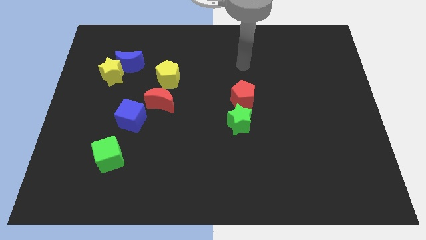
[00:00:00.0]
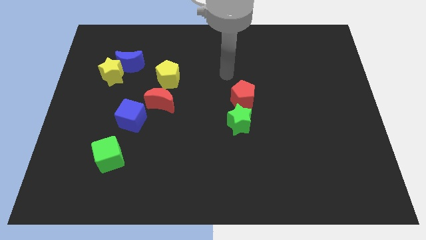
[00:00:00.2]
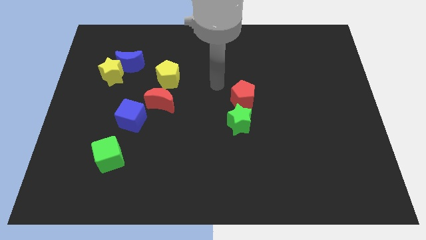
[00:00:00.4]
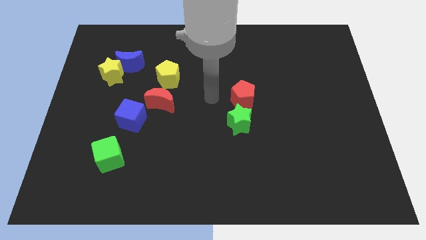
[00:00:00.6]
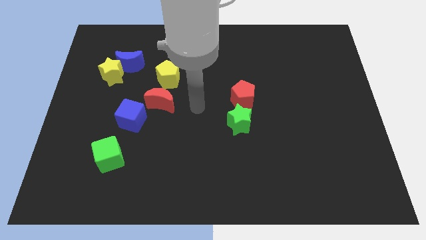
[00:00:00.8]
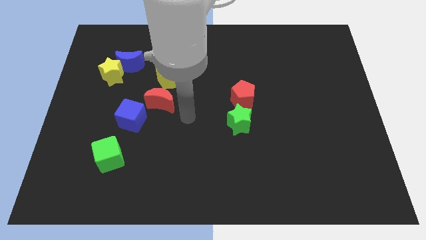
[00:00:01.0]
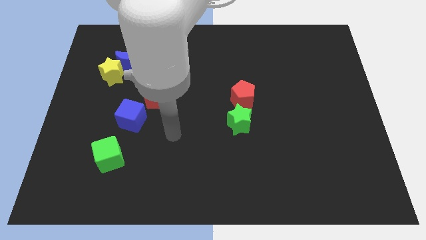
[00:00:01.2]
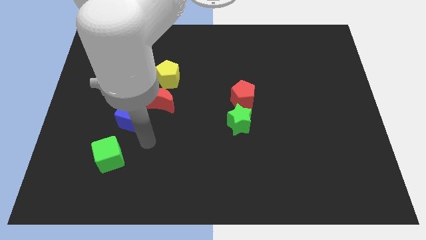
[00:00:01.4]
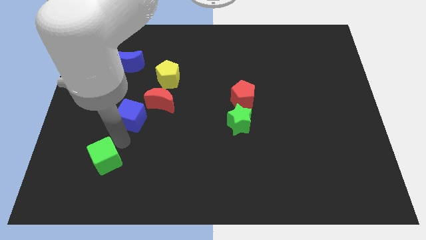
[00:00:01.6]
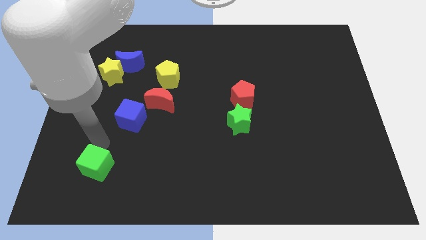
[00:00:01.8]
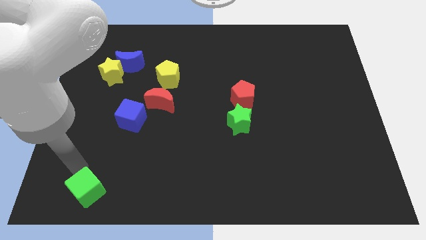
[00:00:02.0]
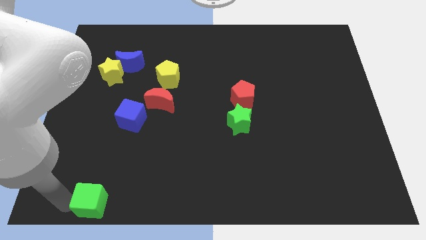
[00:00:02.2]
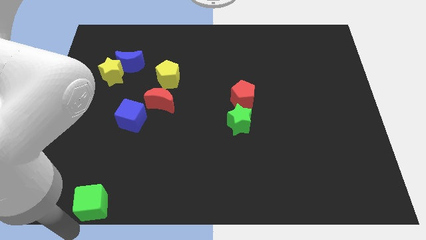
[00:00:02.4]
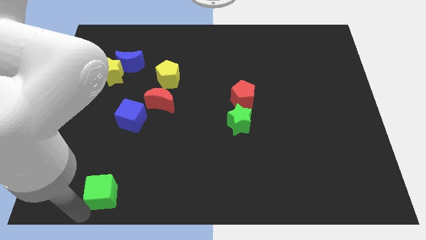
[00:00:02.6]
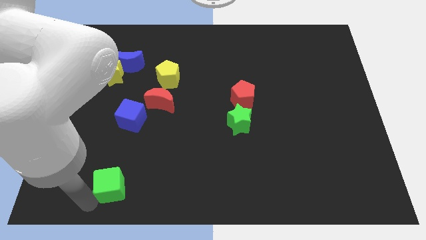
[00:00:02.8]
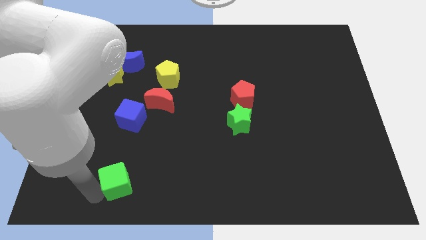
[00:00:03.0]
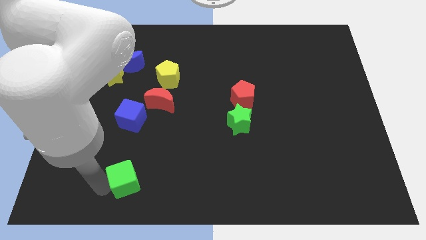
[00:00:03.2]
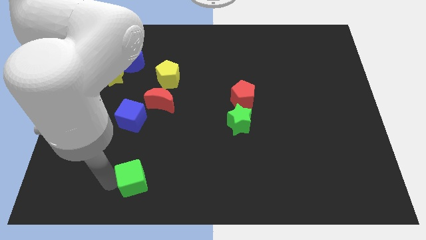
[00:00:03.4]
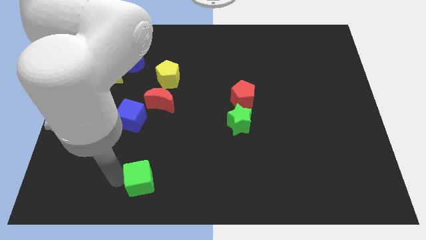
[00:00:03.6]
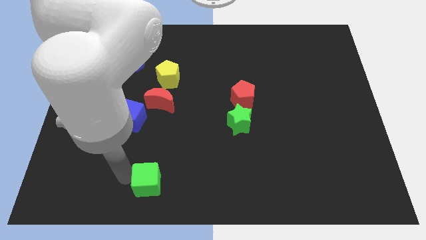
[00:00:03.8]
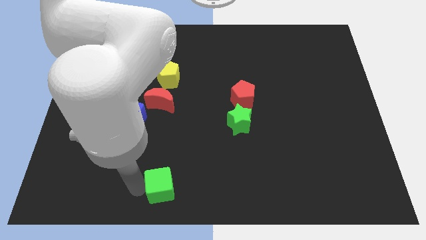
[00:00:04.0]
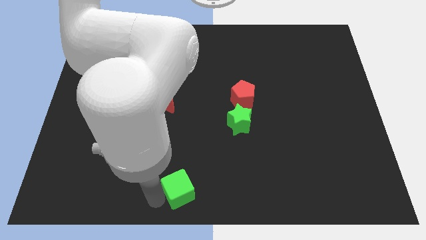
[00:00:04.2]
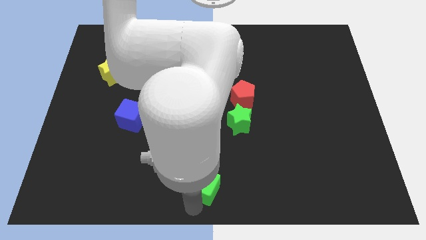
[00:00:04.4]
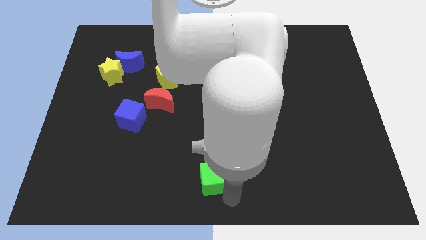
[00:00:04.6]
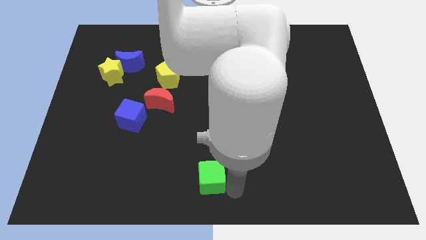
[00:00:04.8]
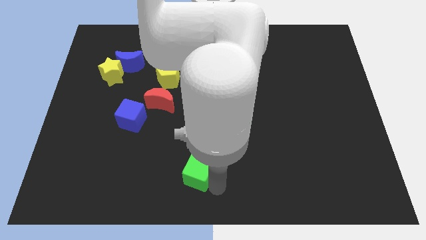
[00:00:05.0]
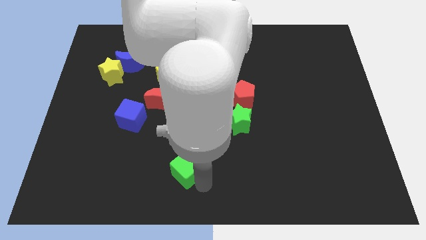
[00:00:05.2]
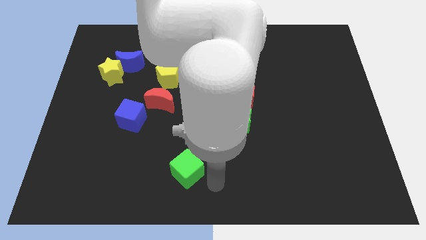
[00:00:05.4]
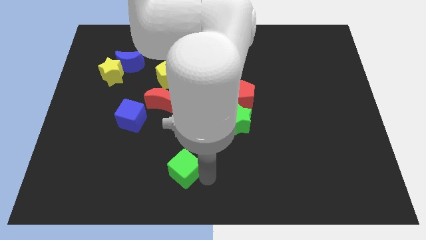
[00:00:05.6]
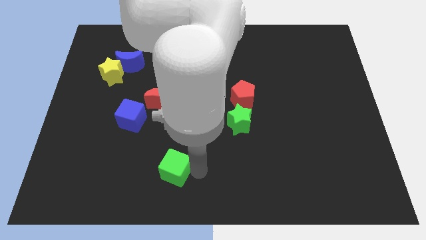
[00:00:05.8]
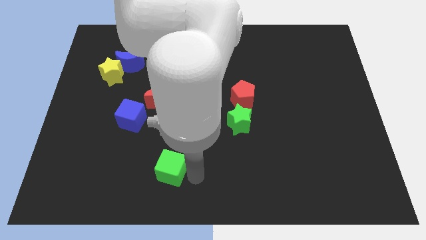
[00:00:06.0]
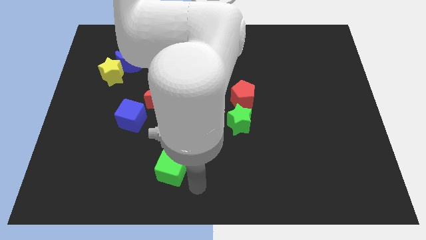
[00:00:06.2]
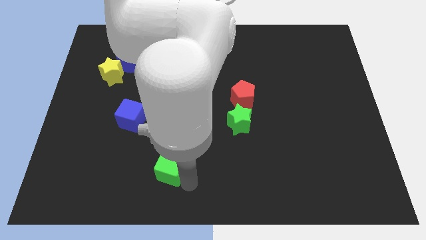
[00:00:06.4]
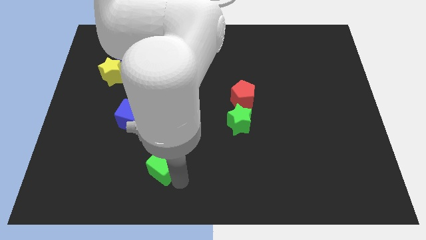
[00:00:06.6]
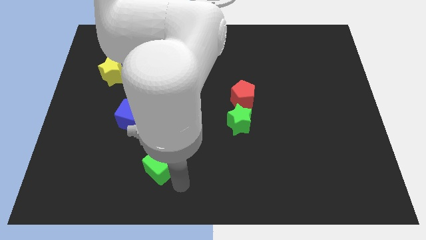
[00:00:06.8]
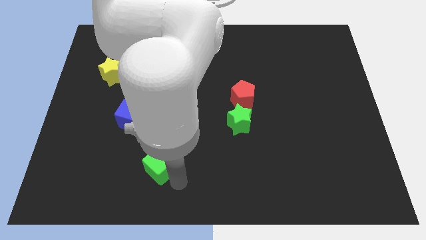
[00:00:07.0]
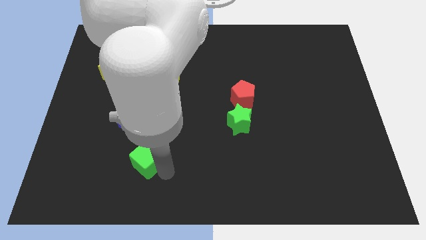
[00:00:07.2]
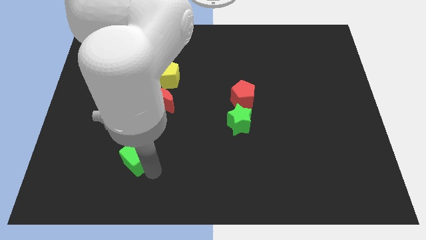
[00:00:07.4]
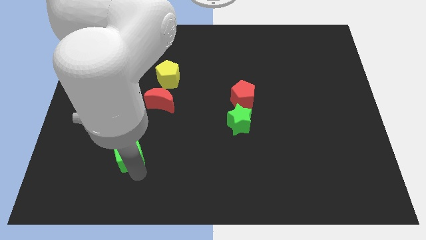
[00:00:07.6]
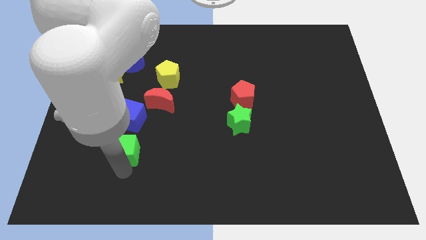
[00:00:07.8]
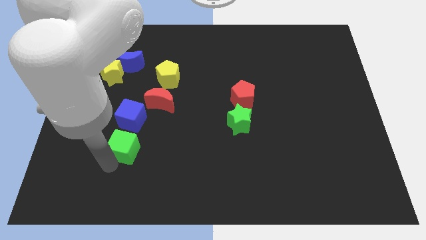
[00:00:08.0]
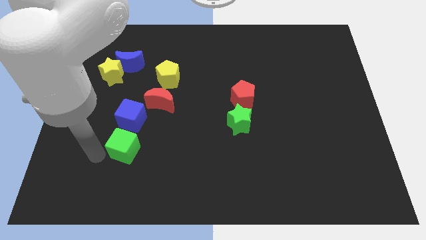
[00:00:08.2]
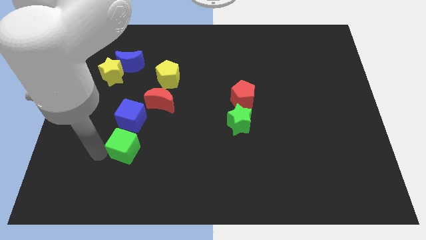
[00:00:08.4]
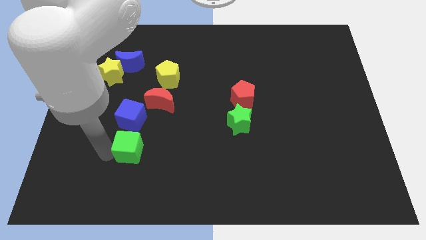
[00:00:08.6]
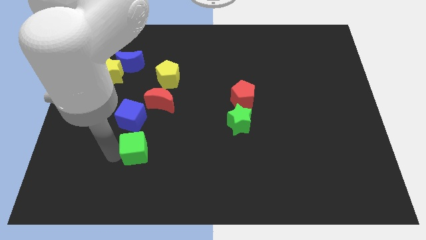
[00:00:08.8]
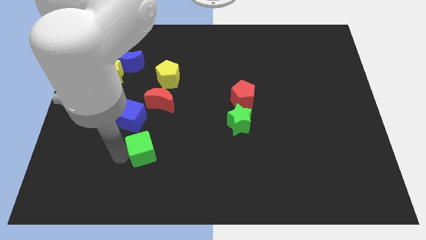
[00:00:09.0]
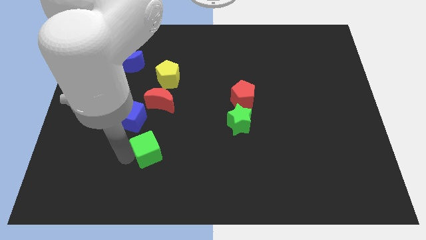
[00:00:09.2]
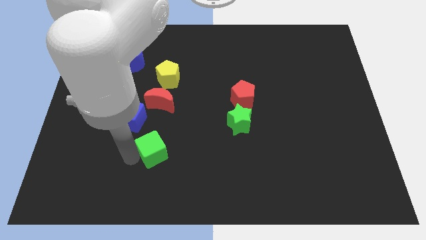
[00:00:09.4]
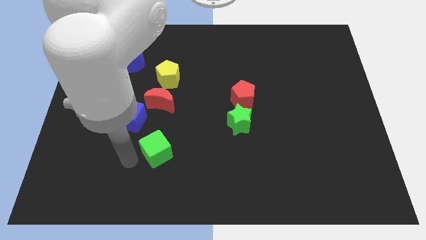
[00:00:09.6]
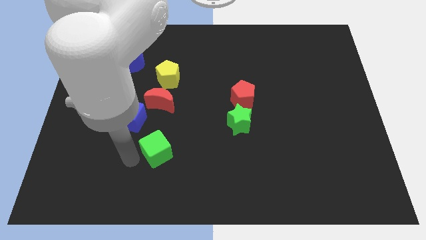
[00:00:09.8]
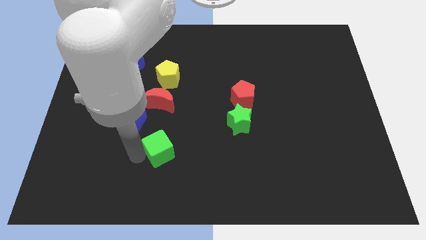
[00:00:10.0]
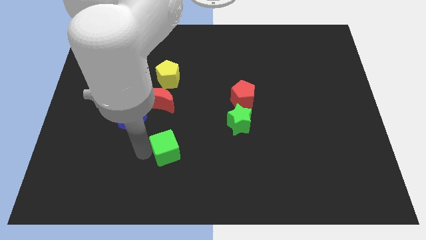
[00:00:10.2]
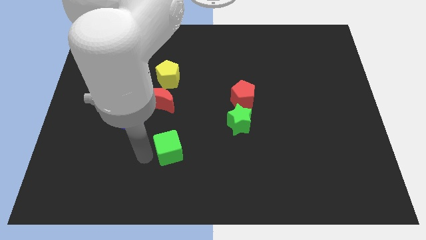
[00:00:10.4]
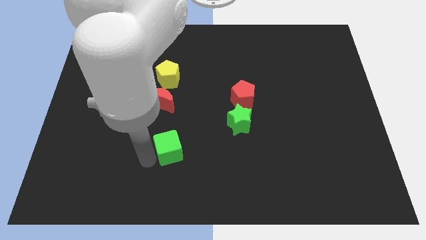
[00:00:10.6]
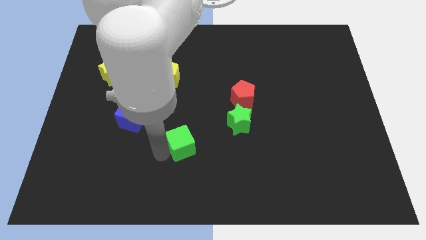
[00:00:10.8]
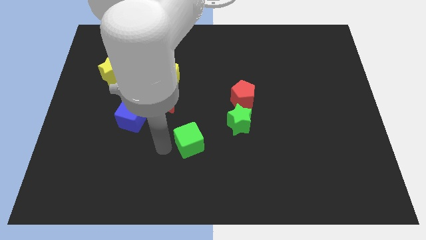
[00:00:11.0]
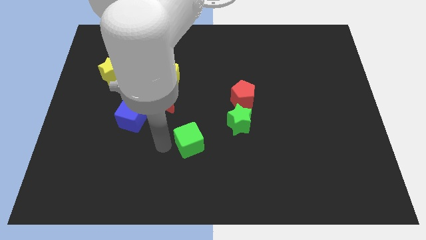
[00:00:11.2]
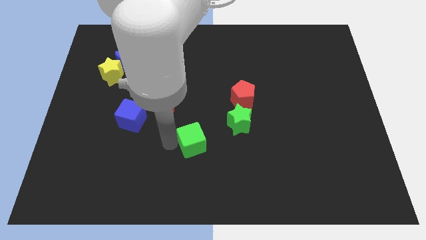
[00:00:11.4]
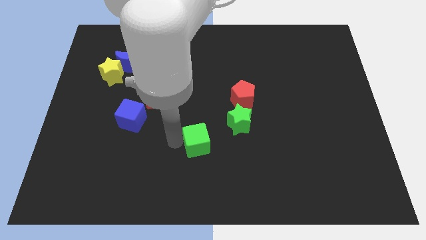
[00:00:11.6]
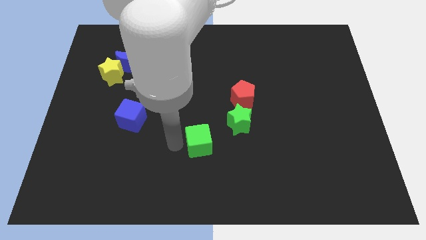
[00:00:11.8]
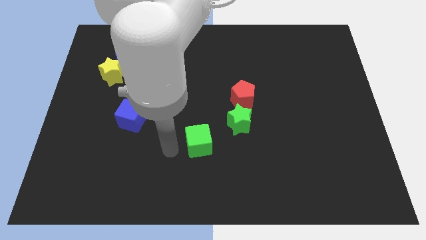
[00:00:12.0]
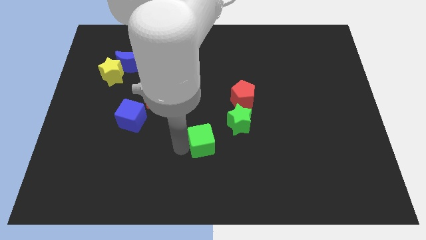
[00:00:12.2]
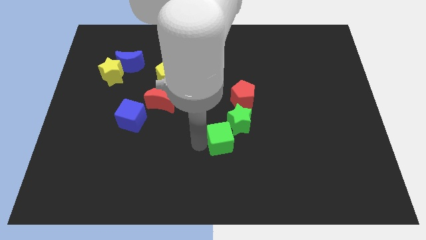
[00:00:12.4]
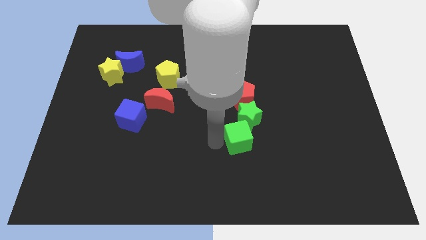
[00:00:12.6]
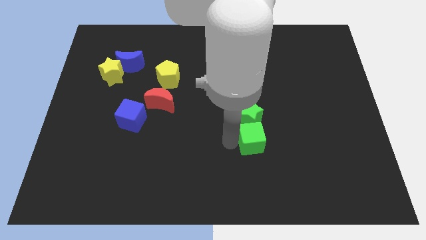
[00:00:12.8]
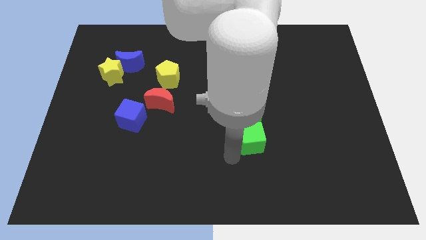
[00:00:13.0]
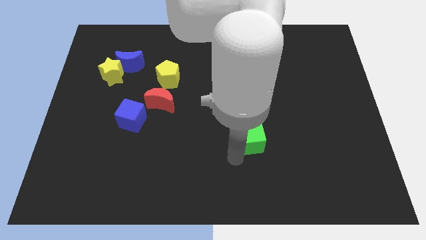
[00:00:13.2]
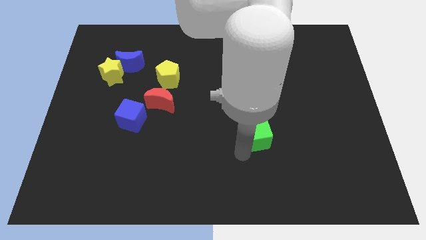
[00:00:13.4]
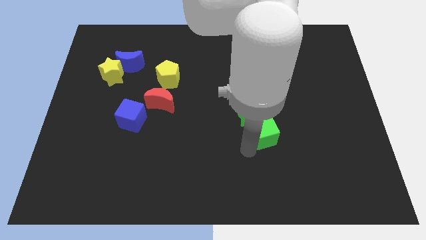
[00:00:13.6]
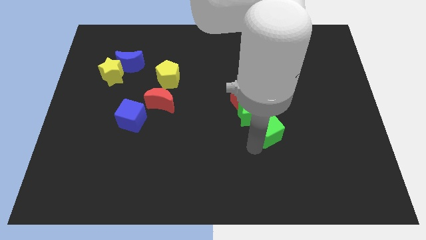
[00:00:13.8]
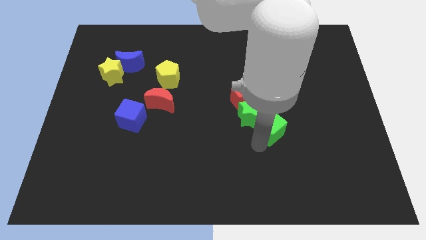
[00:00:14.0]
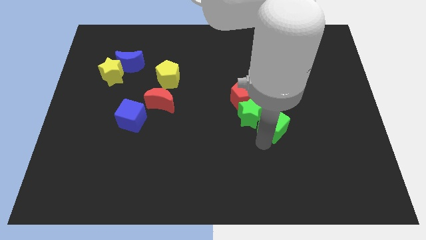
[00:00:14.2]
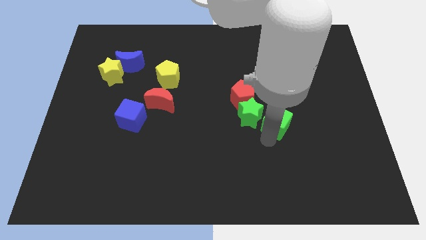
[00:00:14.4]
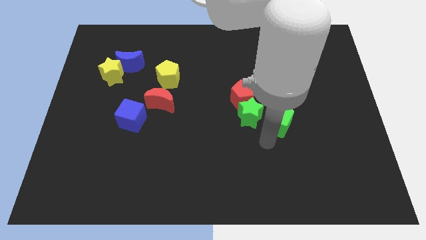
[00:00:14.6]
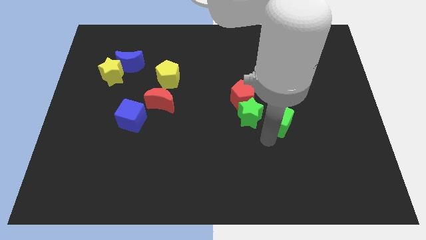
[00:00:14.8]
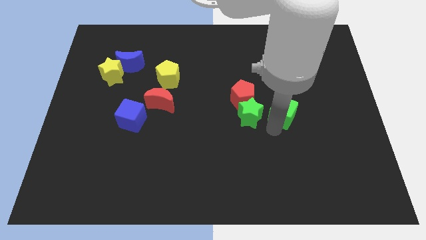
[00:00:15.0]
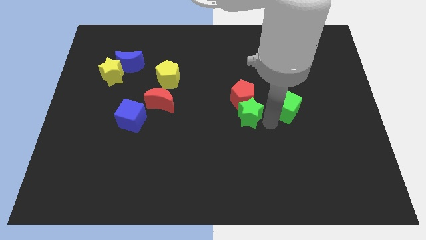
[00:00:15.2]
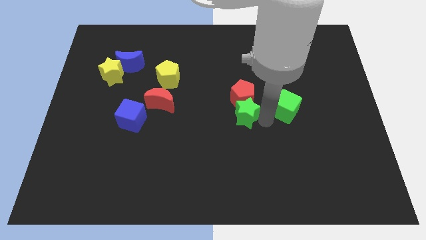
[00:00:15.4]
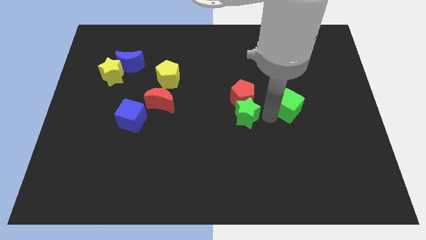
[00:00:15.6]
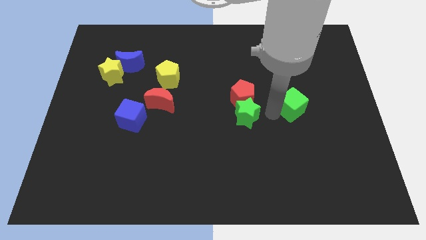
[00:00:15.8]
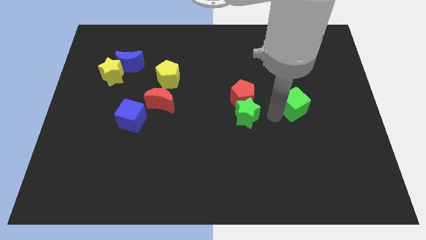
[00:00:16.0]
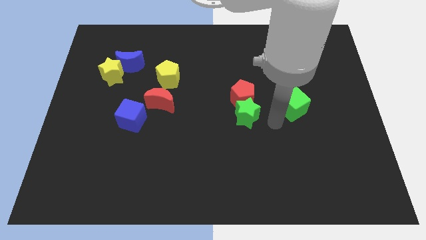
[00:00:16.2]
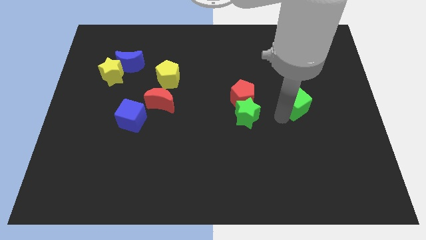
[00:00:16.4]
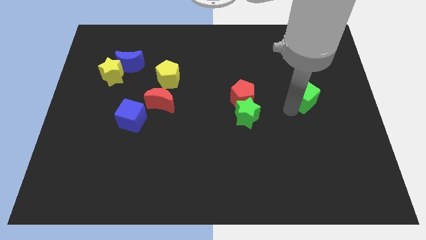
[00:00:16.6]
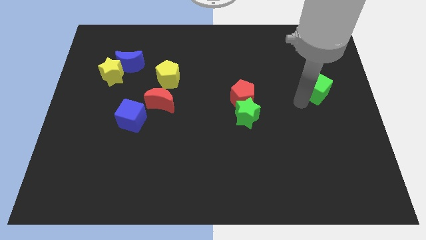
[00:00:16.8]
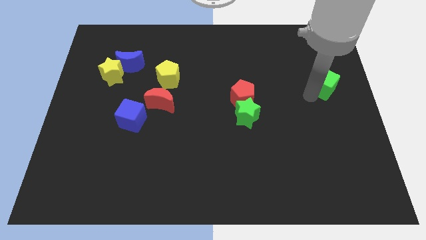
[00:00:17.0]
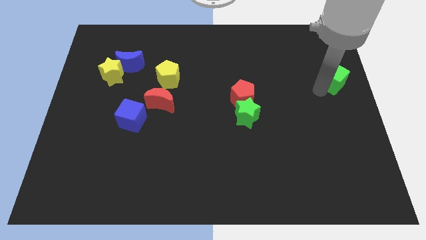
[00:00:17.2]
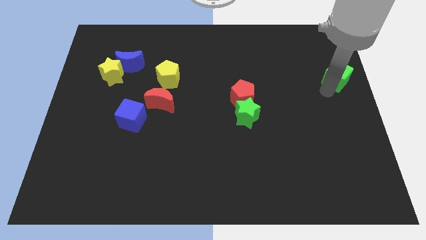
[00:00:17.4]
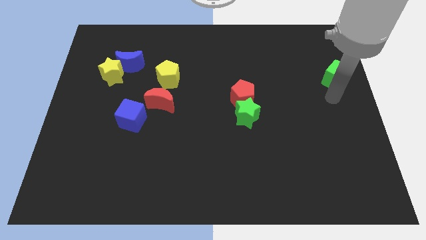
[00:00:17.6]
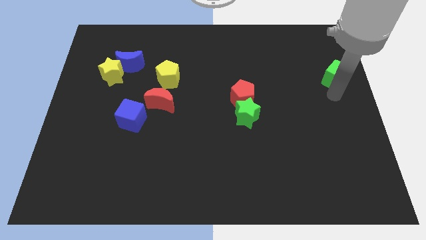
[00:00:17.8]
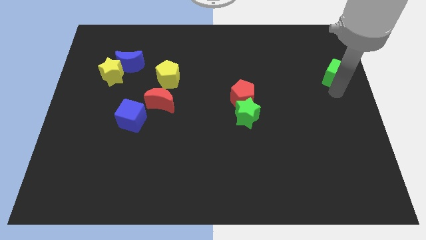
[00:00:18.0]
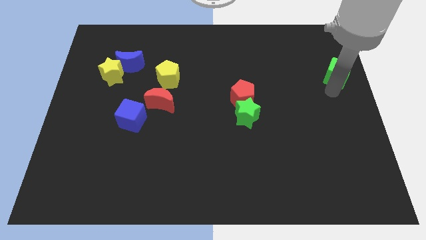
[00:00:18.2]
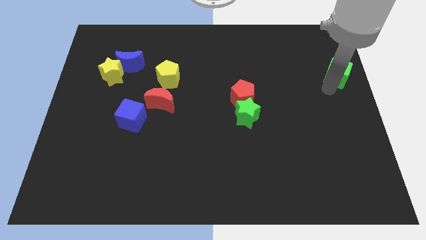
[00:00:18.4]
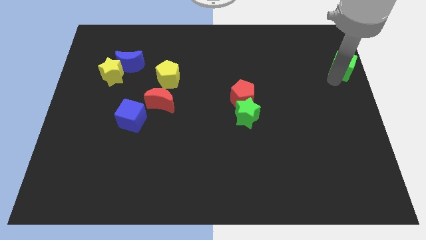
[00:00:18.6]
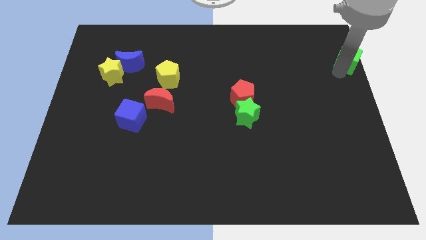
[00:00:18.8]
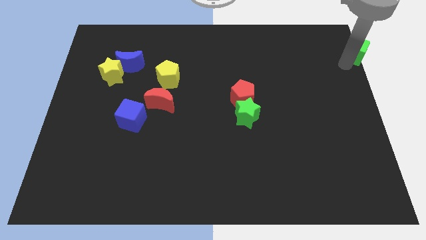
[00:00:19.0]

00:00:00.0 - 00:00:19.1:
move the green cube to the top right of the board
